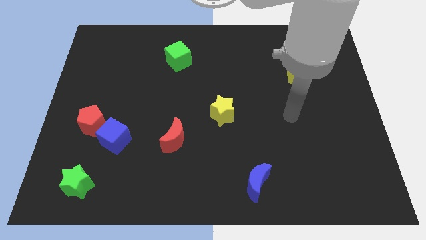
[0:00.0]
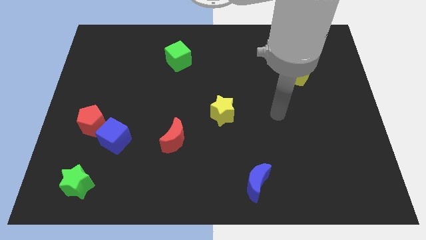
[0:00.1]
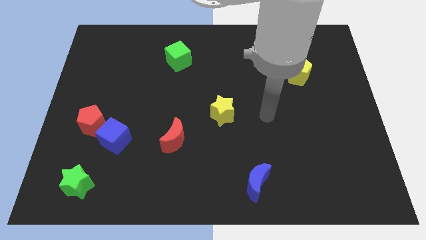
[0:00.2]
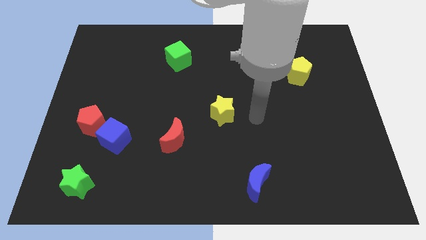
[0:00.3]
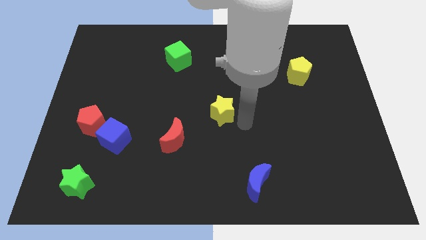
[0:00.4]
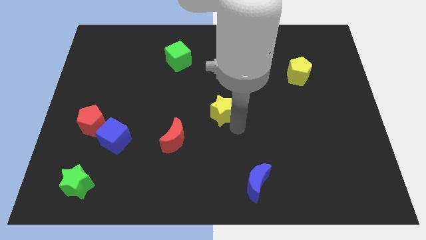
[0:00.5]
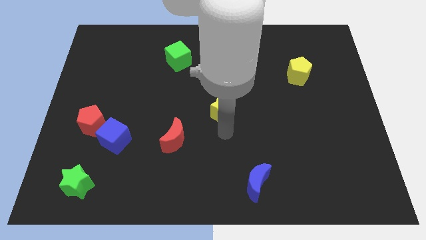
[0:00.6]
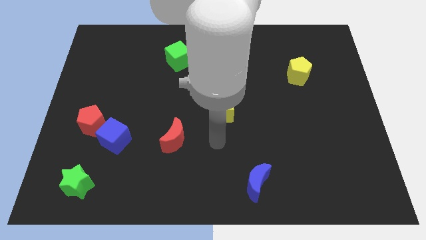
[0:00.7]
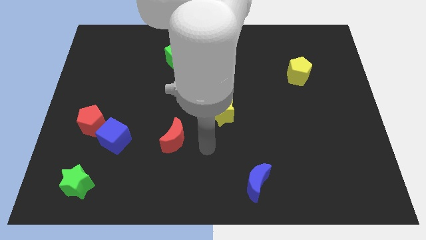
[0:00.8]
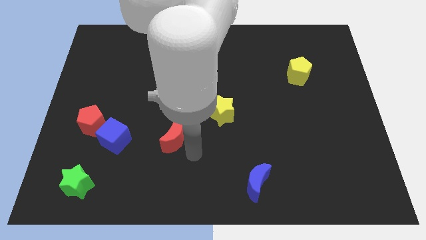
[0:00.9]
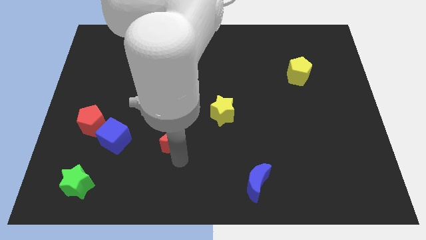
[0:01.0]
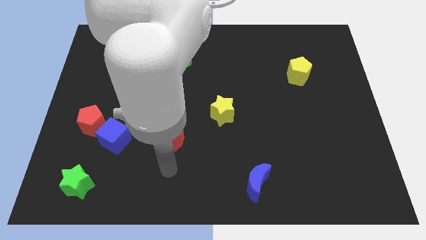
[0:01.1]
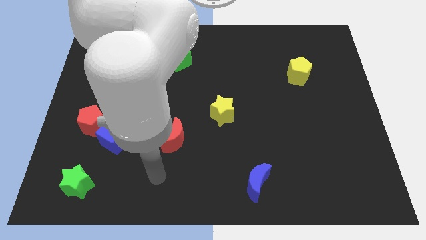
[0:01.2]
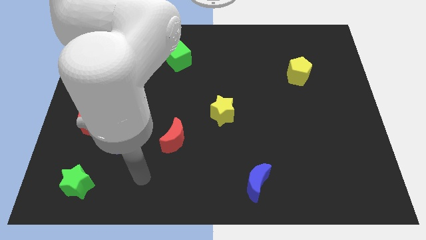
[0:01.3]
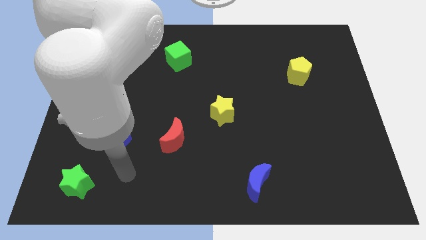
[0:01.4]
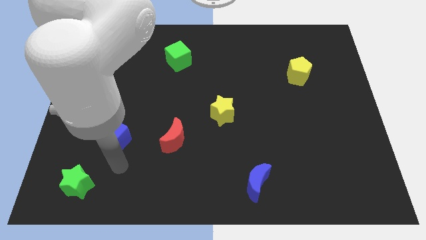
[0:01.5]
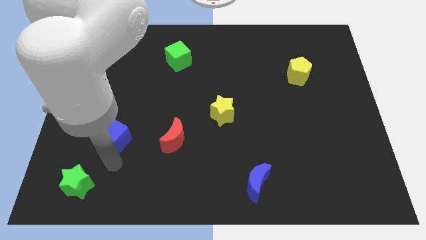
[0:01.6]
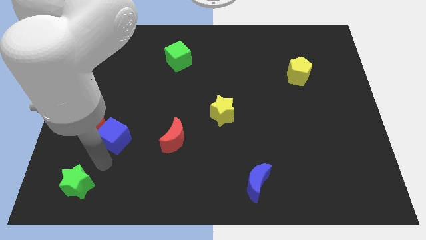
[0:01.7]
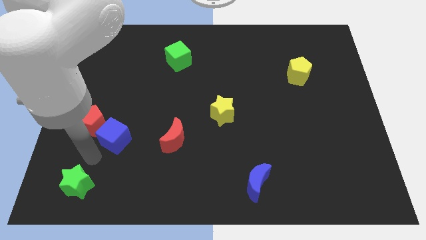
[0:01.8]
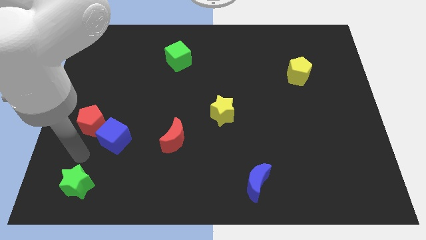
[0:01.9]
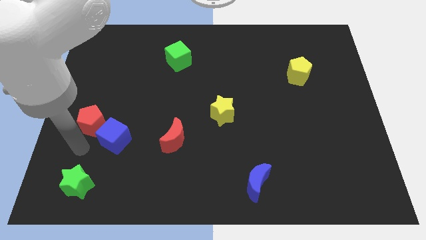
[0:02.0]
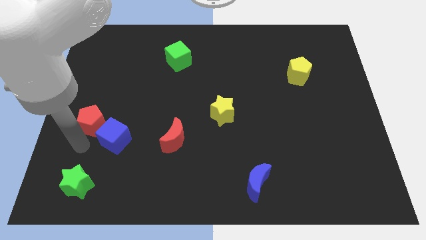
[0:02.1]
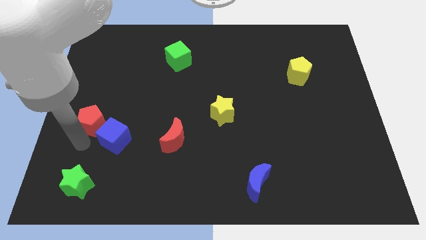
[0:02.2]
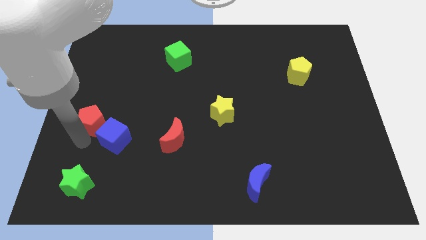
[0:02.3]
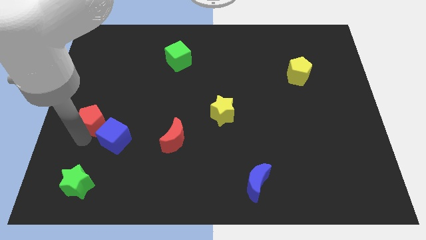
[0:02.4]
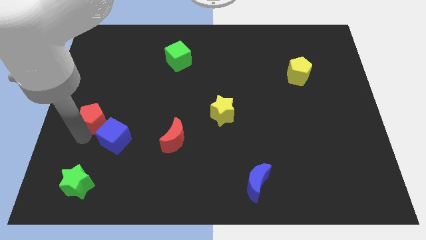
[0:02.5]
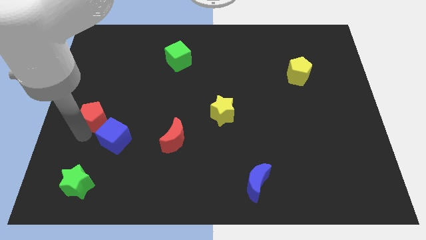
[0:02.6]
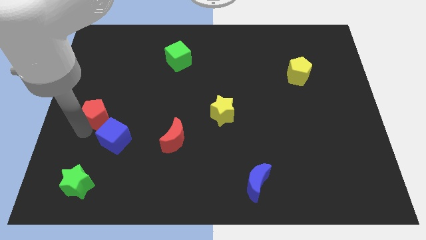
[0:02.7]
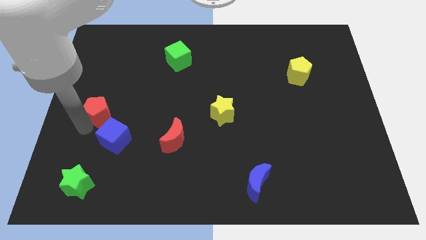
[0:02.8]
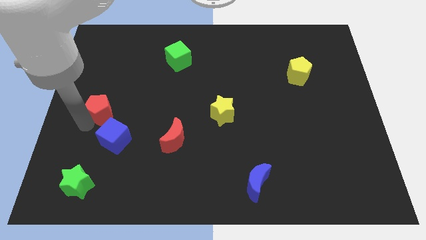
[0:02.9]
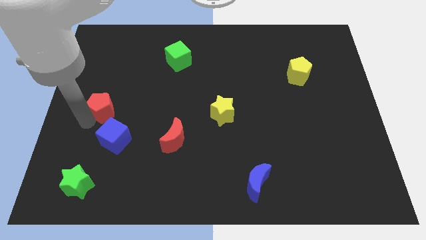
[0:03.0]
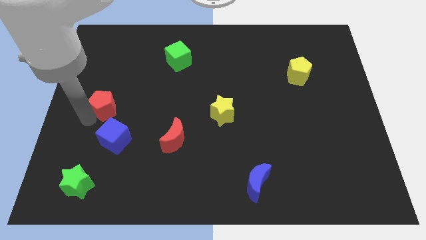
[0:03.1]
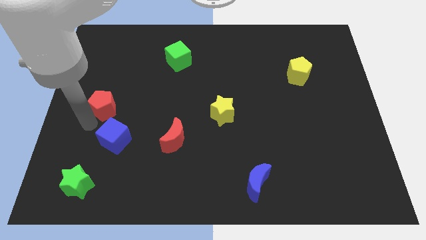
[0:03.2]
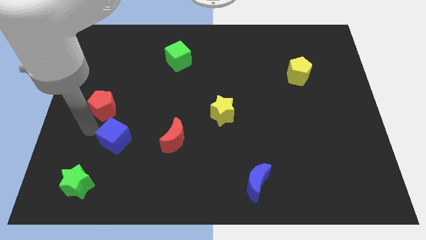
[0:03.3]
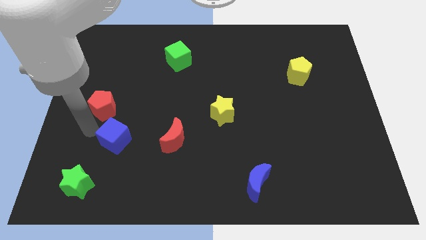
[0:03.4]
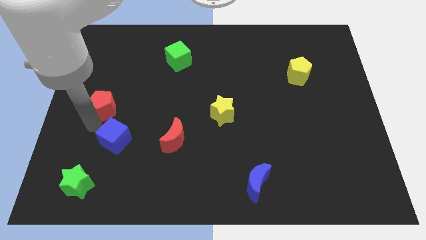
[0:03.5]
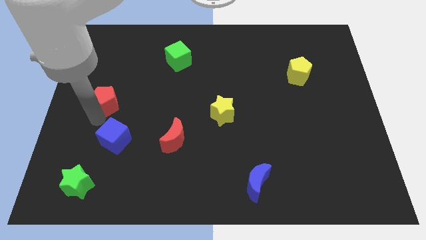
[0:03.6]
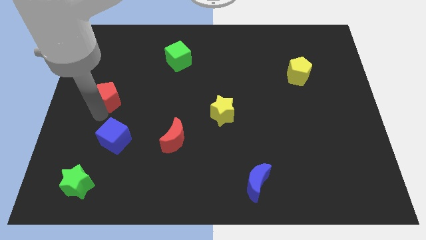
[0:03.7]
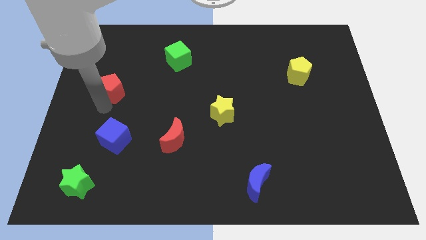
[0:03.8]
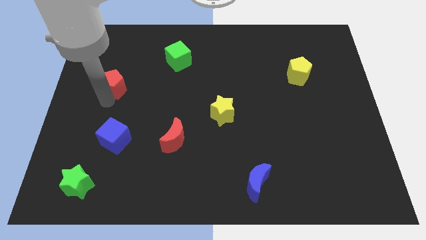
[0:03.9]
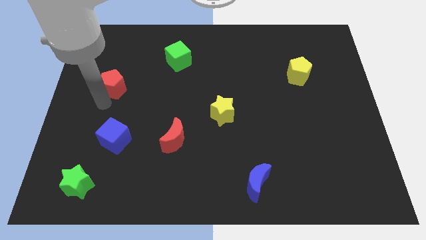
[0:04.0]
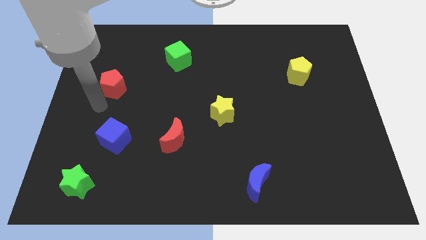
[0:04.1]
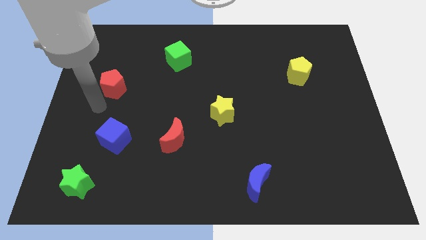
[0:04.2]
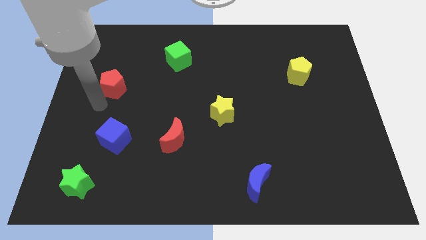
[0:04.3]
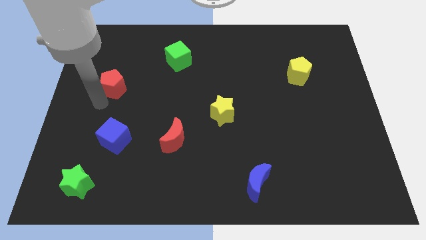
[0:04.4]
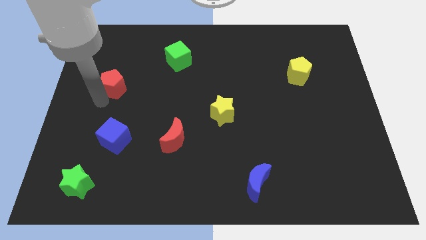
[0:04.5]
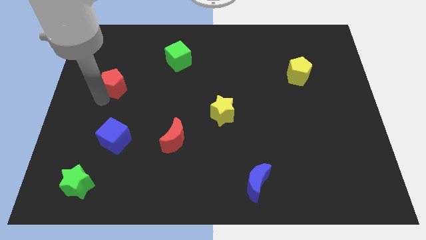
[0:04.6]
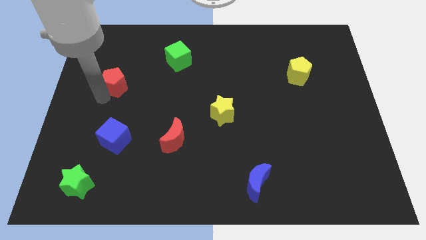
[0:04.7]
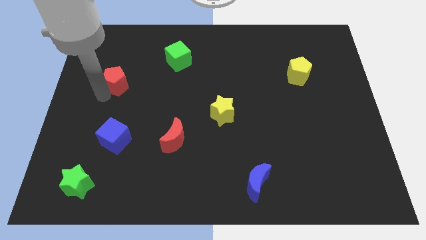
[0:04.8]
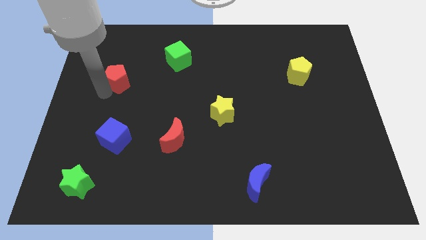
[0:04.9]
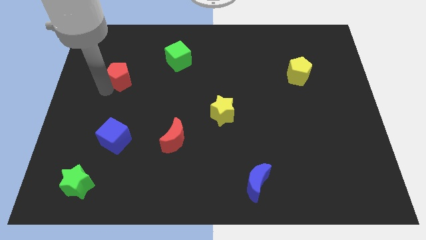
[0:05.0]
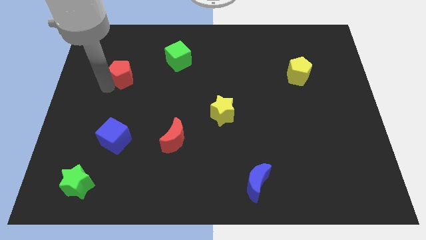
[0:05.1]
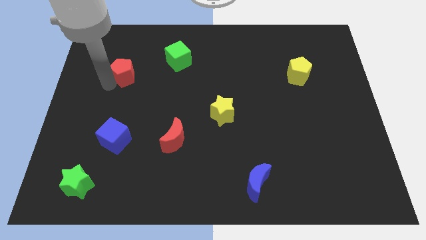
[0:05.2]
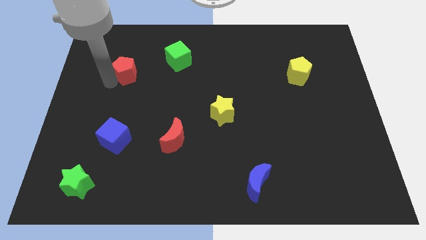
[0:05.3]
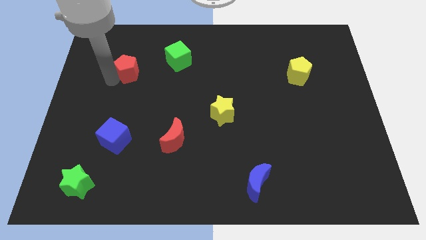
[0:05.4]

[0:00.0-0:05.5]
push the red pentagon left of the green cube
